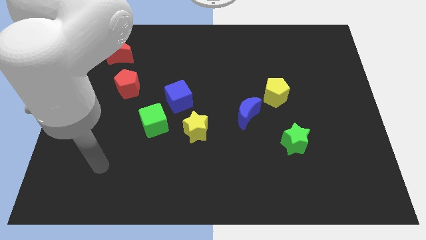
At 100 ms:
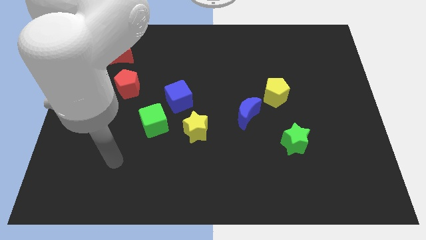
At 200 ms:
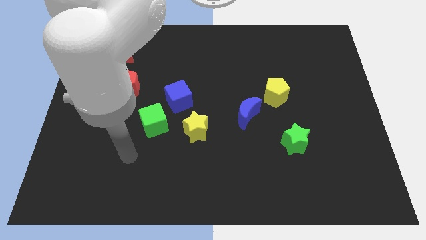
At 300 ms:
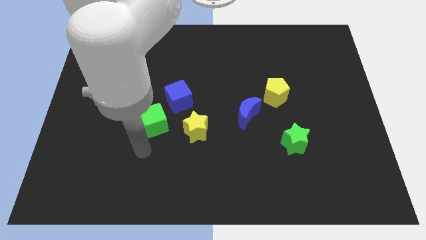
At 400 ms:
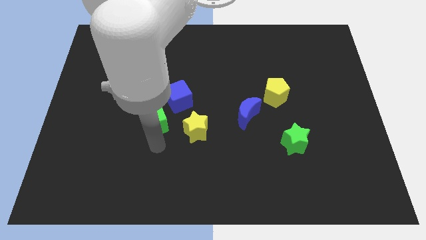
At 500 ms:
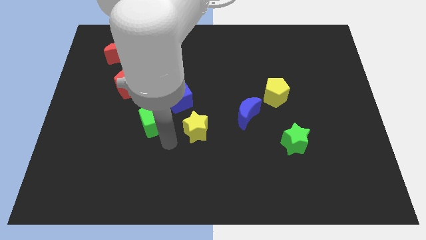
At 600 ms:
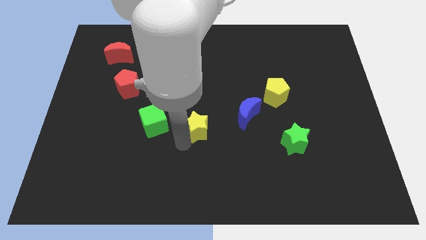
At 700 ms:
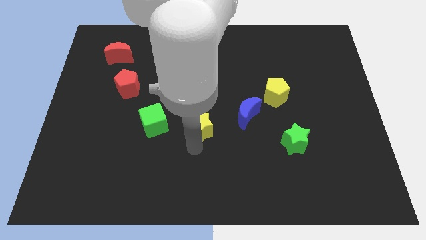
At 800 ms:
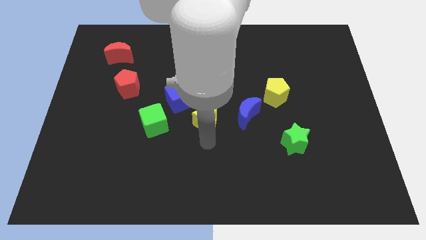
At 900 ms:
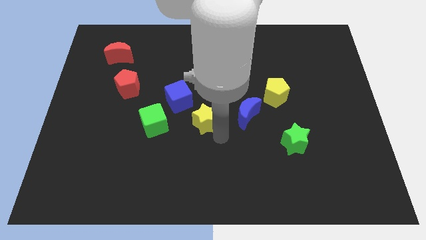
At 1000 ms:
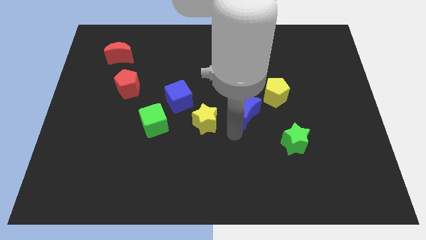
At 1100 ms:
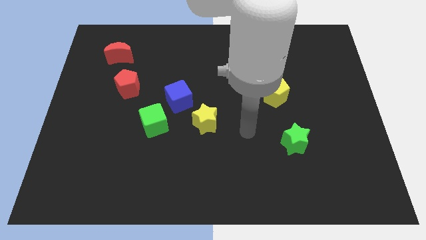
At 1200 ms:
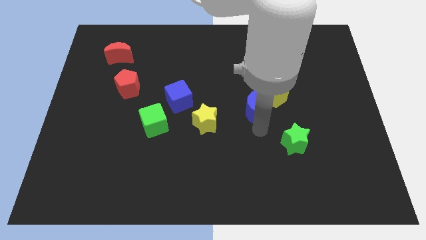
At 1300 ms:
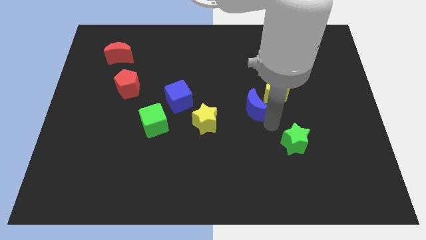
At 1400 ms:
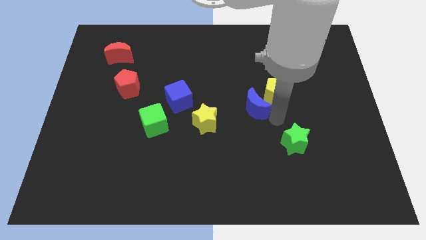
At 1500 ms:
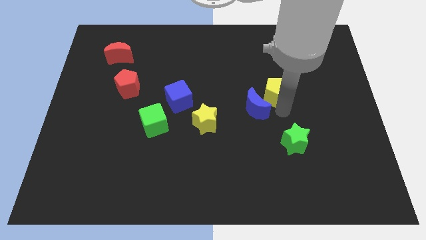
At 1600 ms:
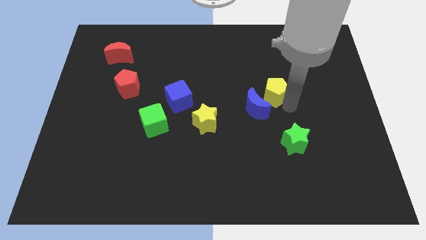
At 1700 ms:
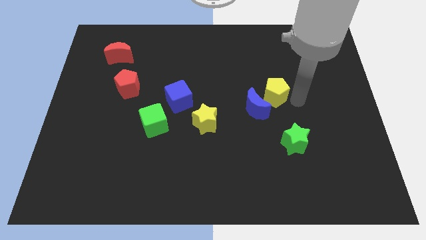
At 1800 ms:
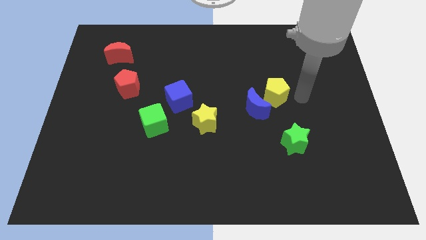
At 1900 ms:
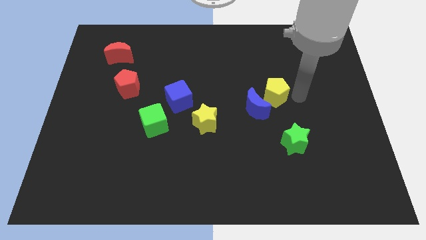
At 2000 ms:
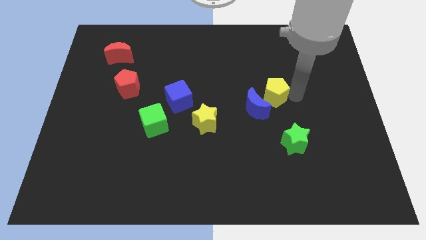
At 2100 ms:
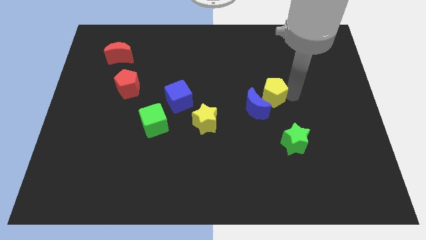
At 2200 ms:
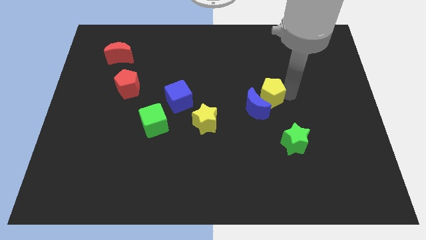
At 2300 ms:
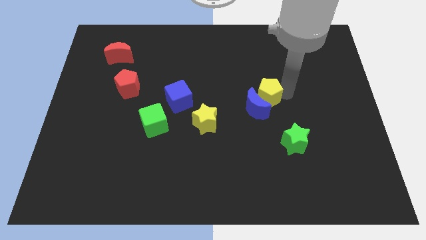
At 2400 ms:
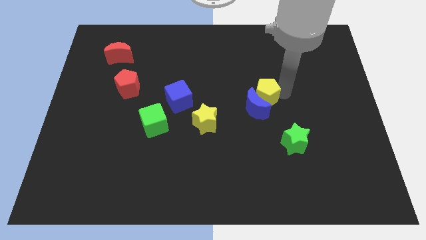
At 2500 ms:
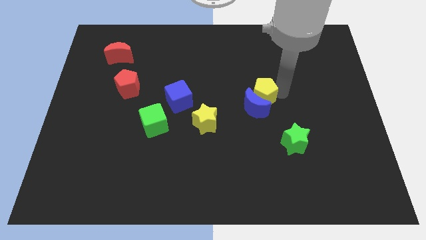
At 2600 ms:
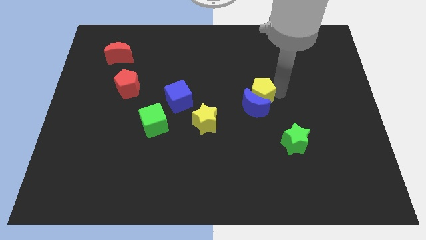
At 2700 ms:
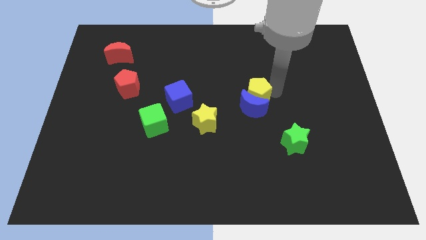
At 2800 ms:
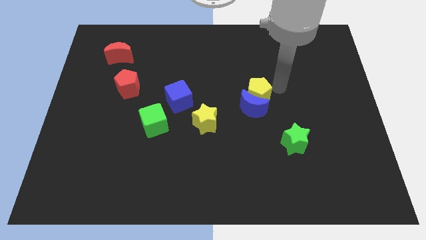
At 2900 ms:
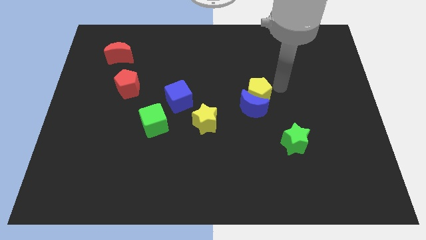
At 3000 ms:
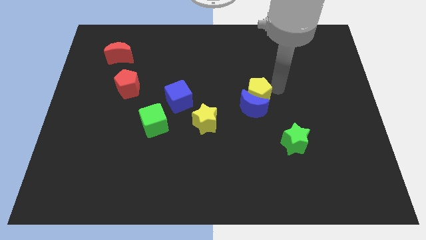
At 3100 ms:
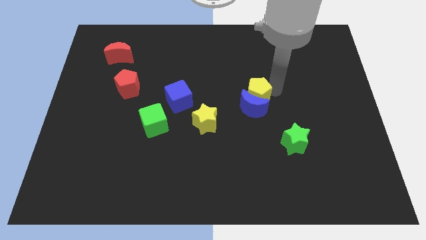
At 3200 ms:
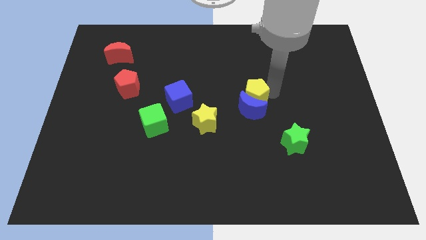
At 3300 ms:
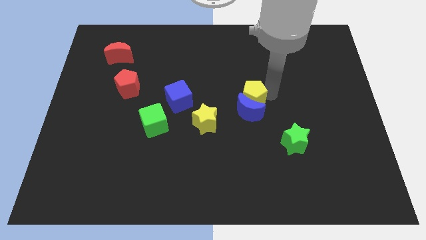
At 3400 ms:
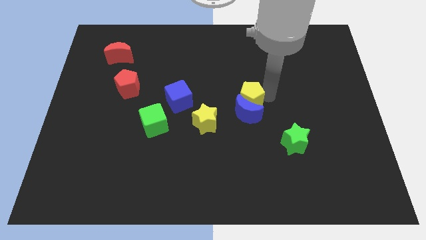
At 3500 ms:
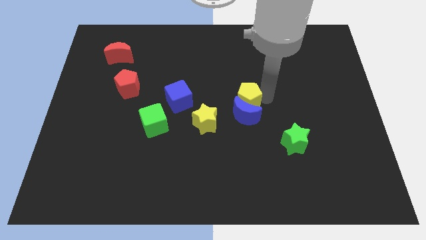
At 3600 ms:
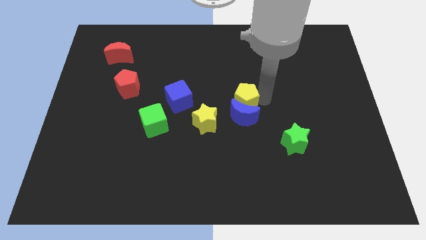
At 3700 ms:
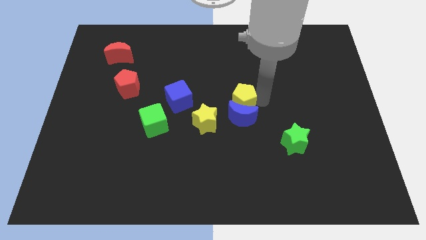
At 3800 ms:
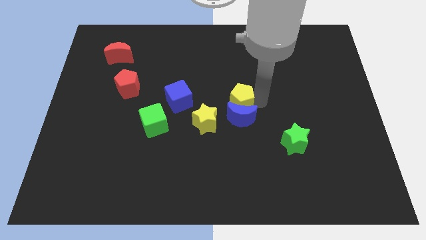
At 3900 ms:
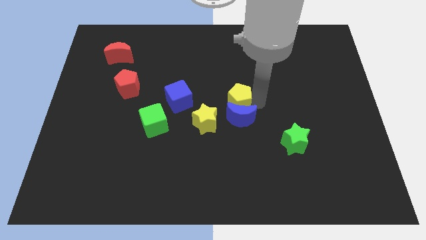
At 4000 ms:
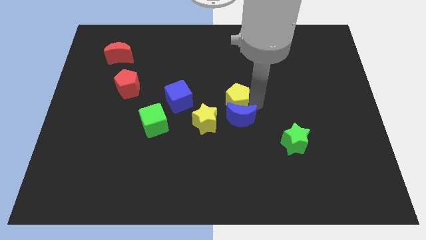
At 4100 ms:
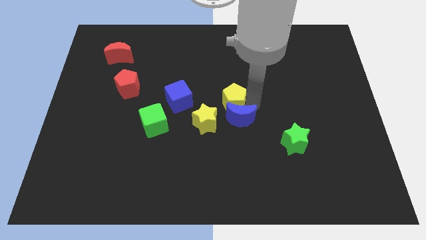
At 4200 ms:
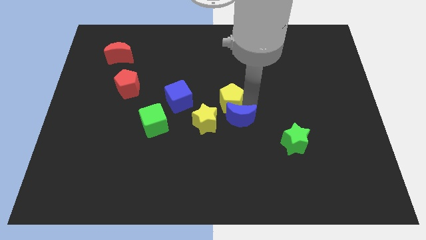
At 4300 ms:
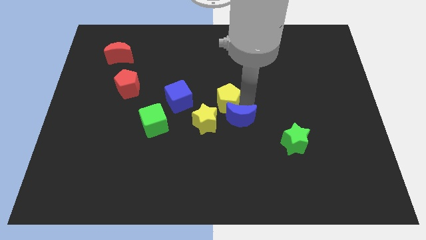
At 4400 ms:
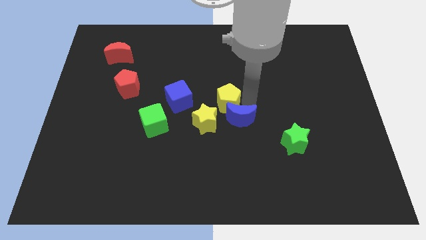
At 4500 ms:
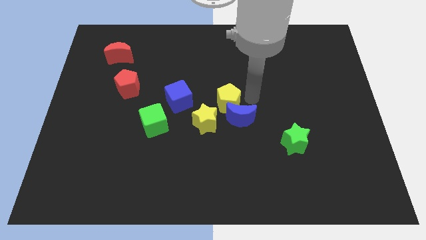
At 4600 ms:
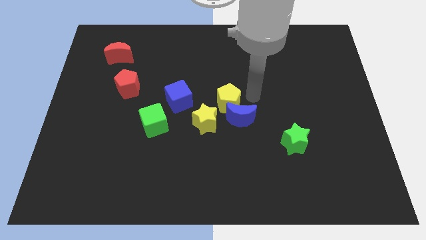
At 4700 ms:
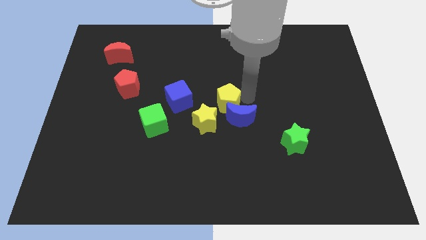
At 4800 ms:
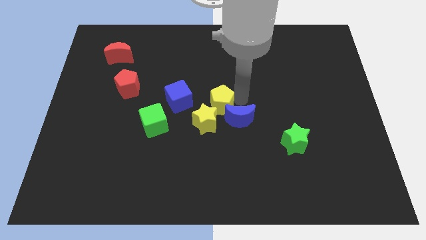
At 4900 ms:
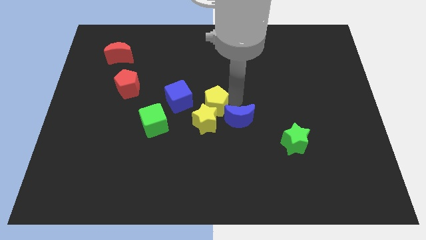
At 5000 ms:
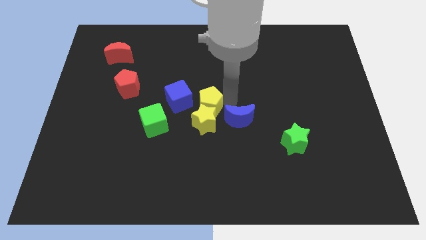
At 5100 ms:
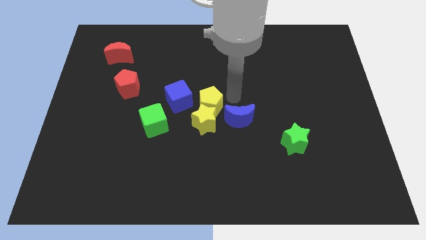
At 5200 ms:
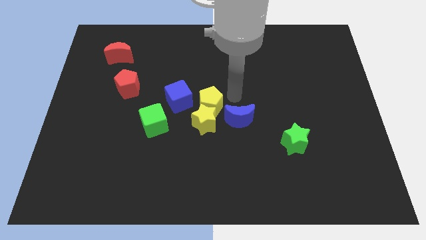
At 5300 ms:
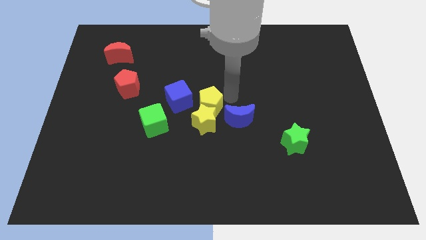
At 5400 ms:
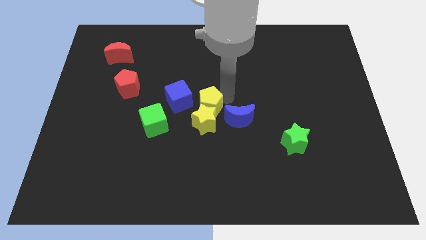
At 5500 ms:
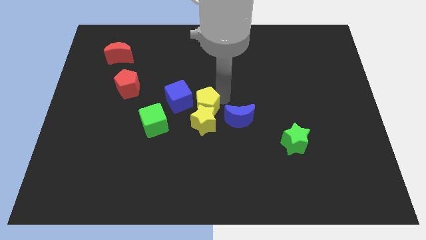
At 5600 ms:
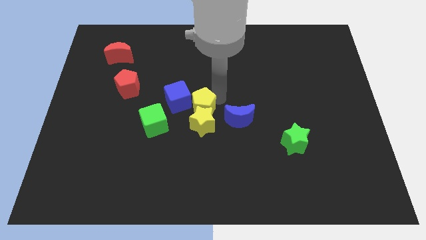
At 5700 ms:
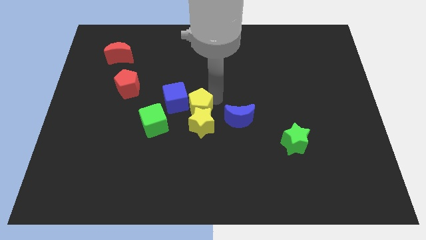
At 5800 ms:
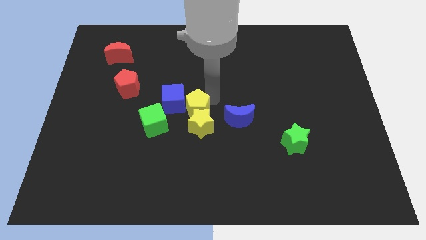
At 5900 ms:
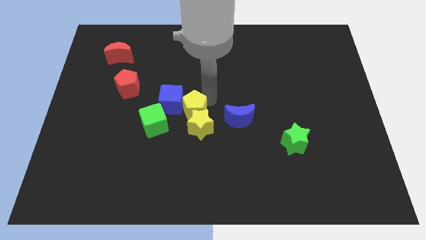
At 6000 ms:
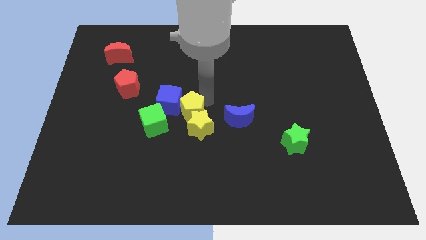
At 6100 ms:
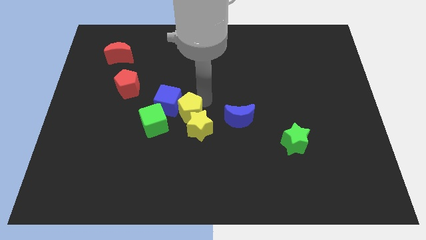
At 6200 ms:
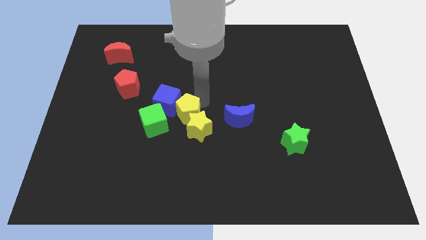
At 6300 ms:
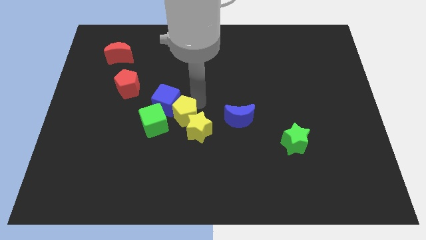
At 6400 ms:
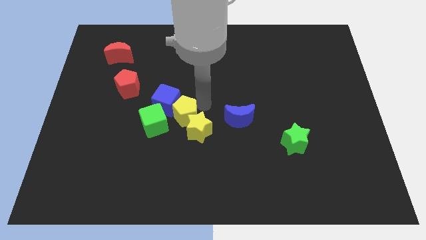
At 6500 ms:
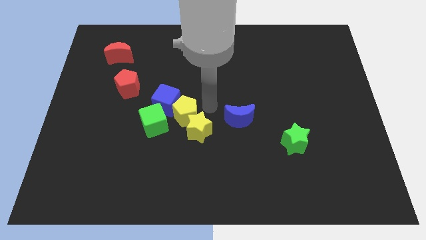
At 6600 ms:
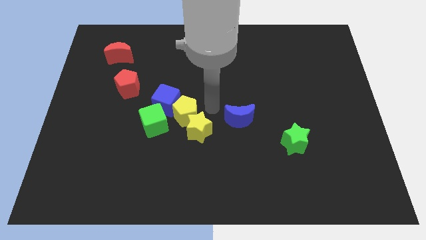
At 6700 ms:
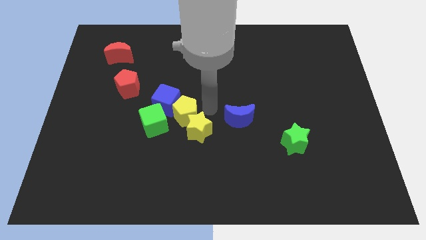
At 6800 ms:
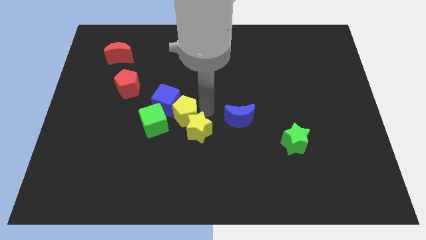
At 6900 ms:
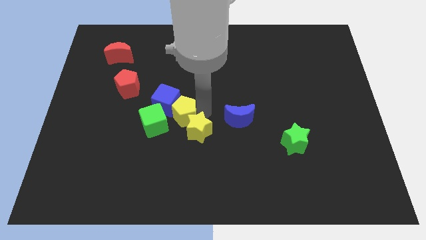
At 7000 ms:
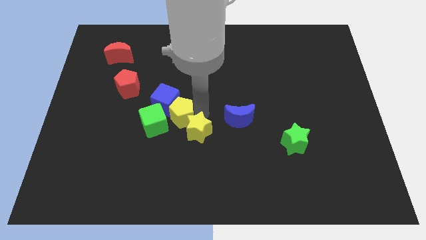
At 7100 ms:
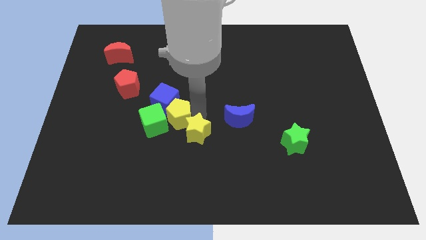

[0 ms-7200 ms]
put the yellow pentagon next to the green cube

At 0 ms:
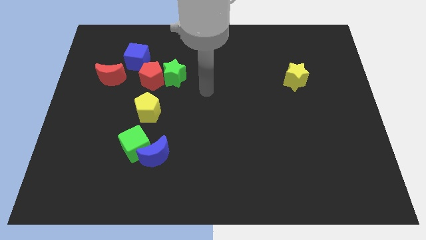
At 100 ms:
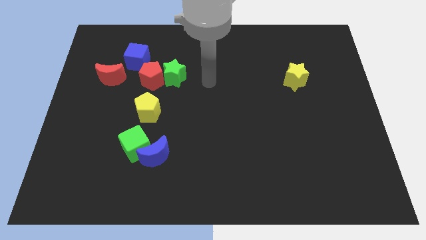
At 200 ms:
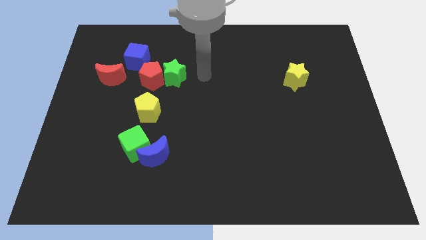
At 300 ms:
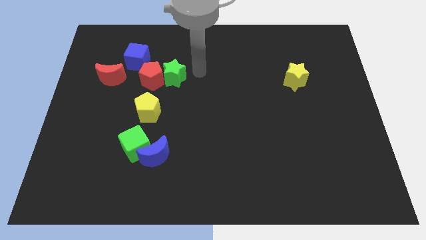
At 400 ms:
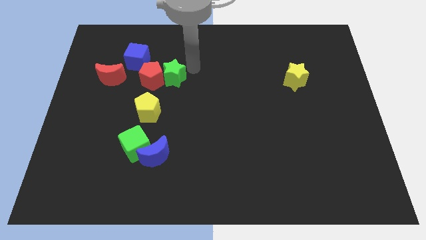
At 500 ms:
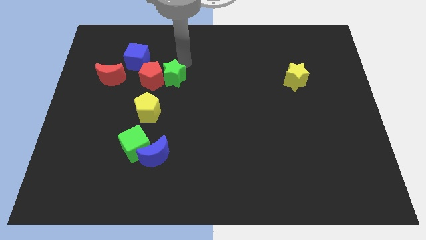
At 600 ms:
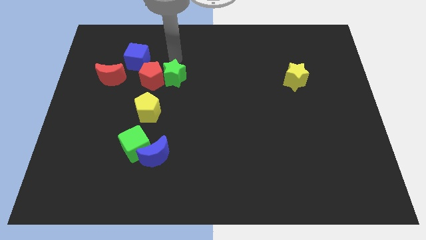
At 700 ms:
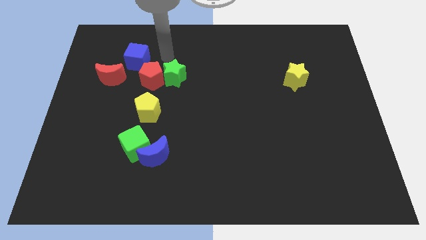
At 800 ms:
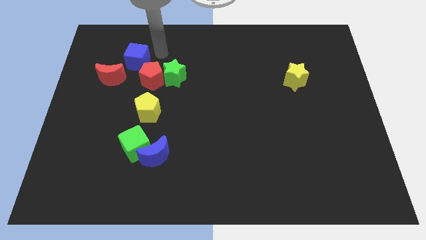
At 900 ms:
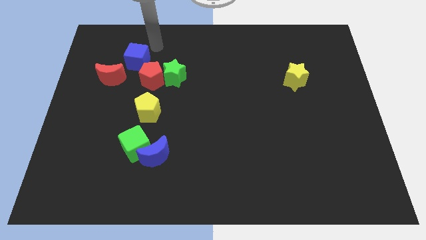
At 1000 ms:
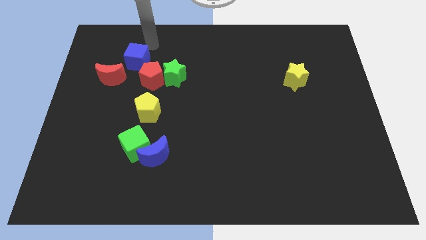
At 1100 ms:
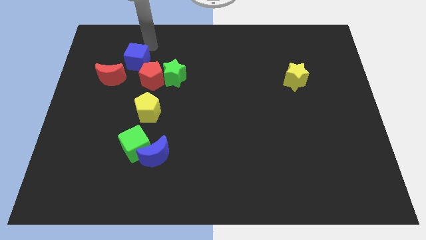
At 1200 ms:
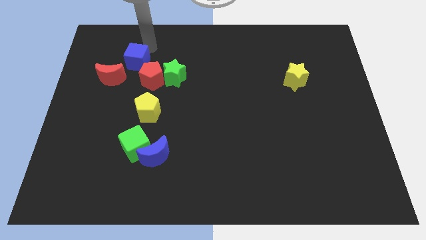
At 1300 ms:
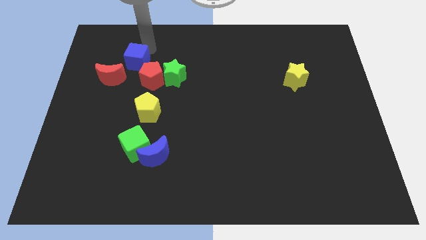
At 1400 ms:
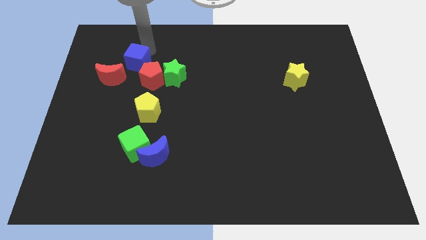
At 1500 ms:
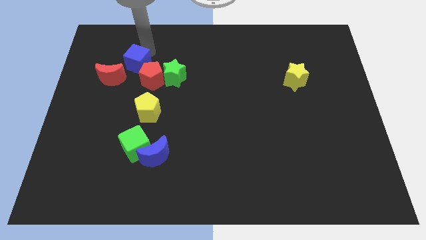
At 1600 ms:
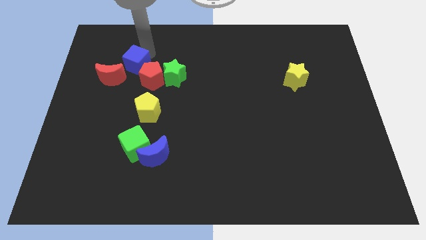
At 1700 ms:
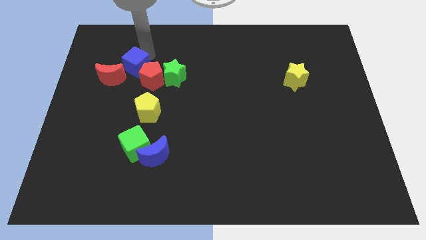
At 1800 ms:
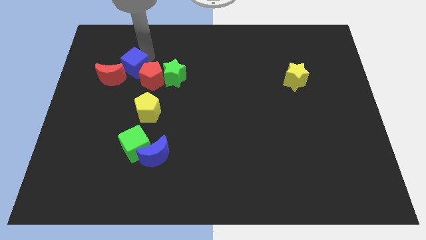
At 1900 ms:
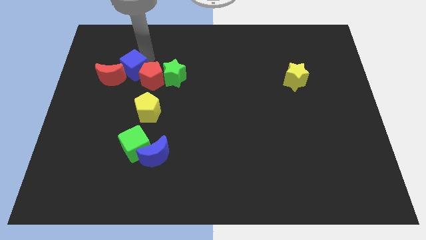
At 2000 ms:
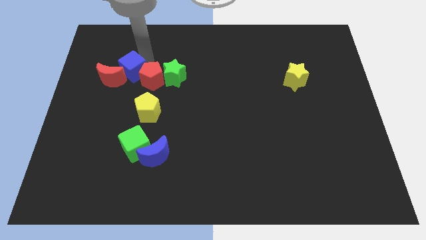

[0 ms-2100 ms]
put the blue cube to the red moon
